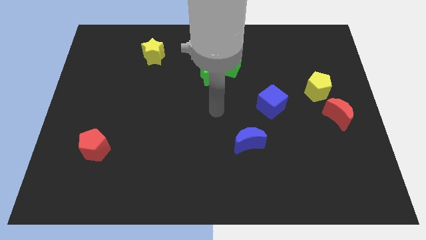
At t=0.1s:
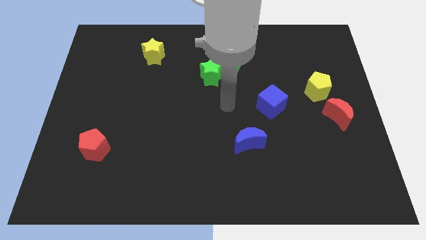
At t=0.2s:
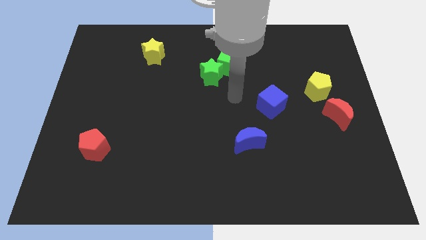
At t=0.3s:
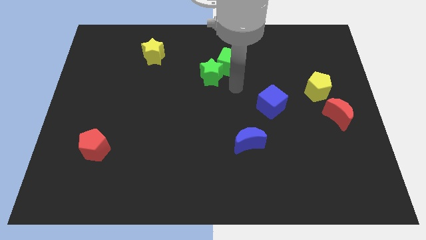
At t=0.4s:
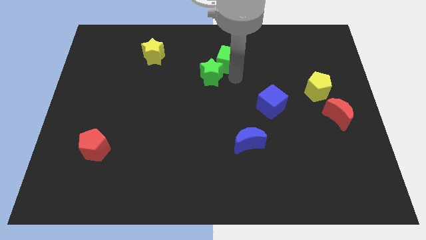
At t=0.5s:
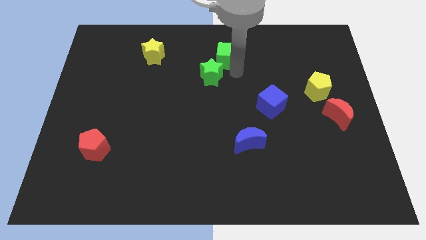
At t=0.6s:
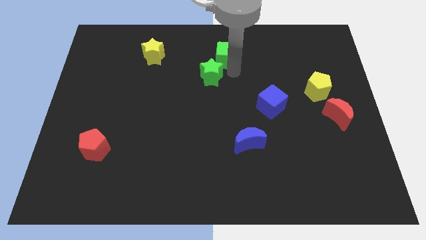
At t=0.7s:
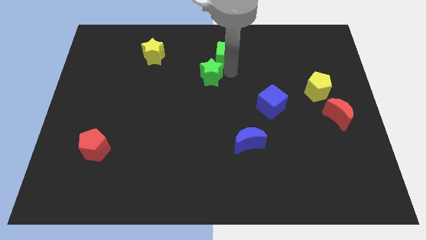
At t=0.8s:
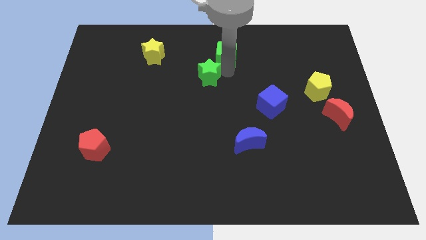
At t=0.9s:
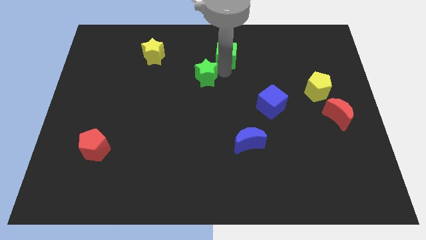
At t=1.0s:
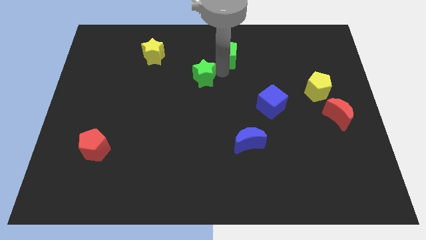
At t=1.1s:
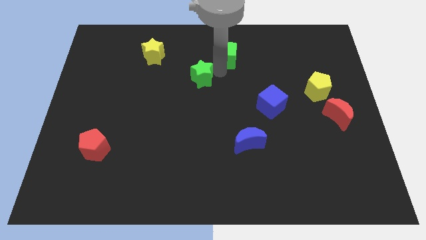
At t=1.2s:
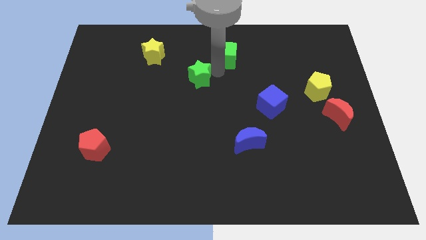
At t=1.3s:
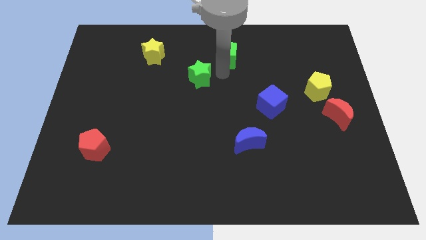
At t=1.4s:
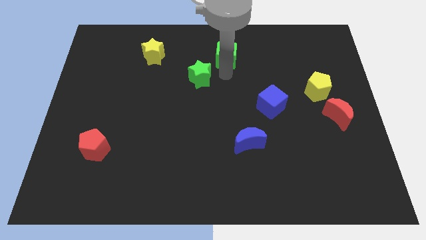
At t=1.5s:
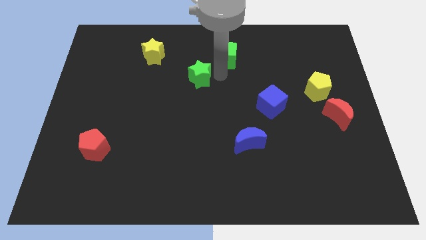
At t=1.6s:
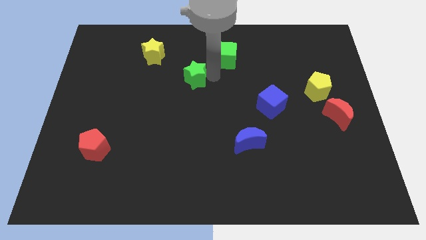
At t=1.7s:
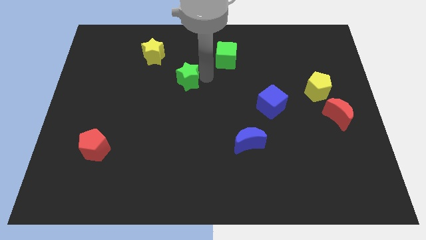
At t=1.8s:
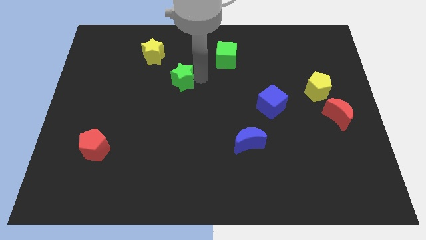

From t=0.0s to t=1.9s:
slide the green star left somewhat

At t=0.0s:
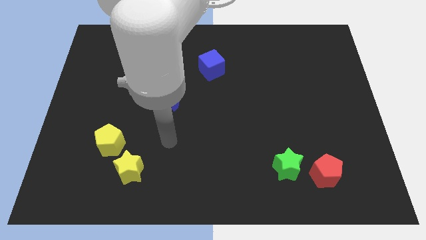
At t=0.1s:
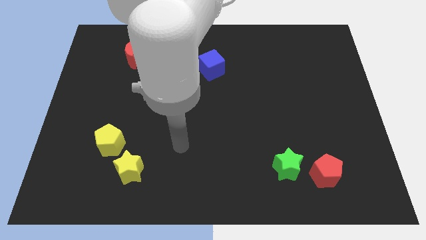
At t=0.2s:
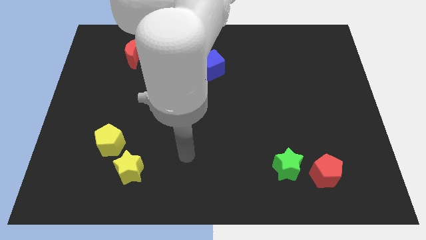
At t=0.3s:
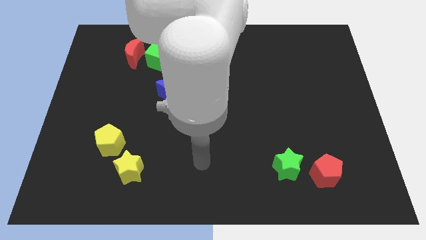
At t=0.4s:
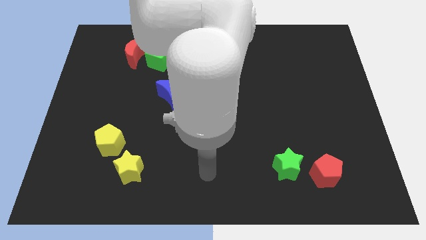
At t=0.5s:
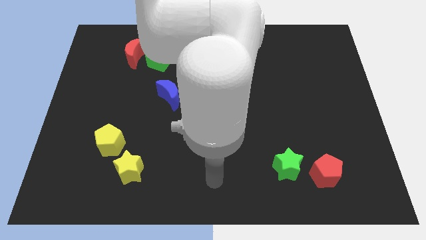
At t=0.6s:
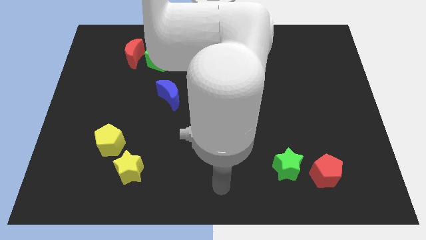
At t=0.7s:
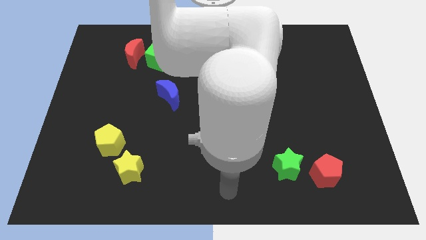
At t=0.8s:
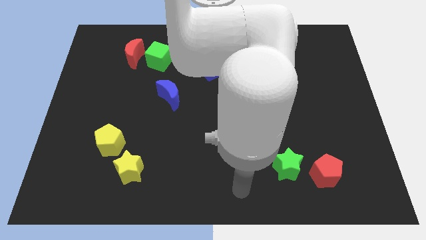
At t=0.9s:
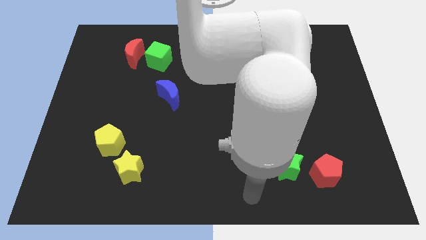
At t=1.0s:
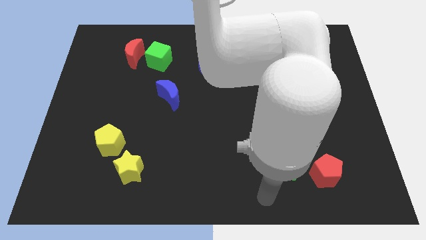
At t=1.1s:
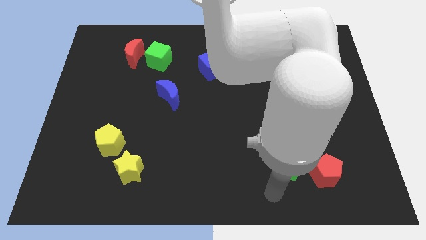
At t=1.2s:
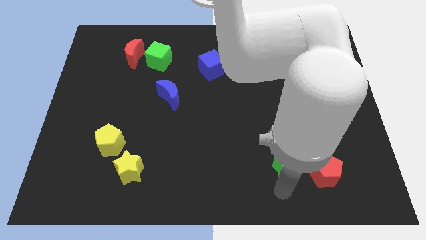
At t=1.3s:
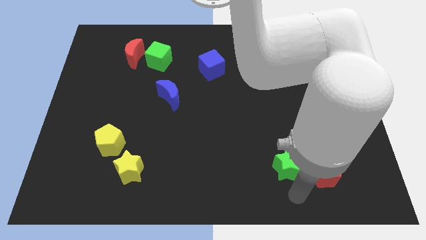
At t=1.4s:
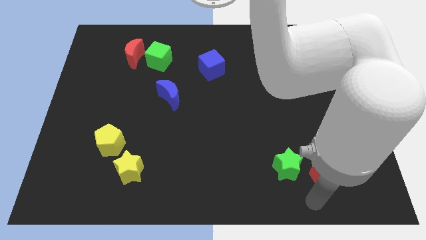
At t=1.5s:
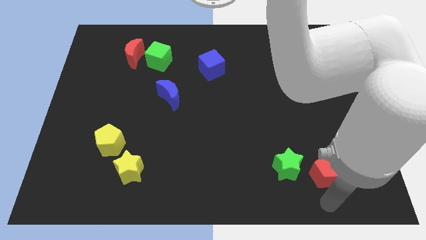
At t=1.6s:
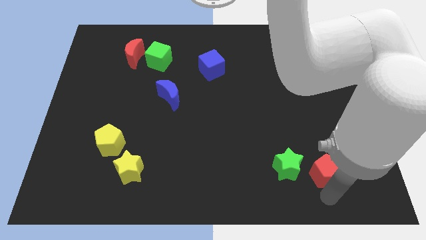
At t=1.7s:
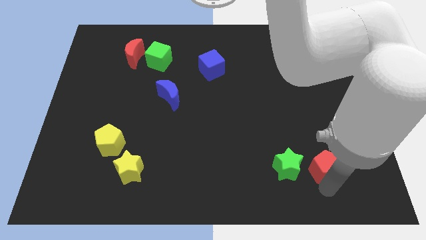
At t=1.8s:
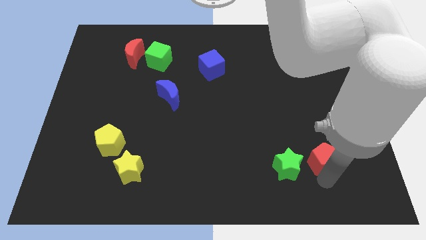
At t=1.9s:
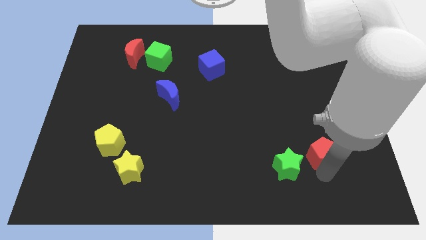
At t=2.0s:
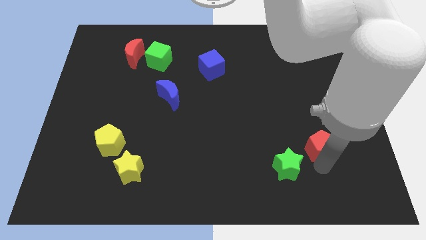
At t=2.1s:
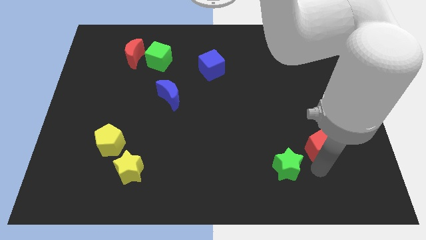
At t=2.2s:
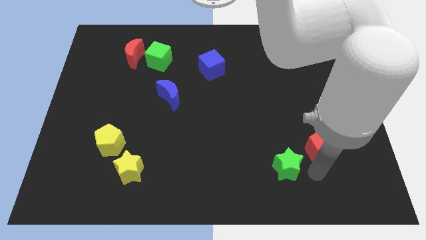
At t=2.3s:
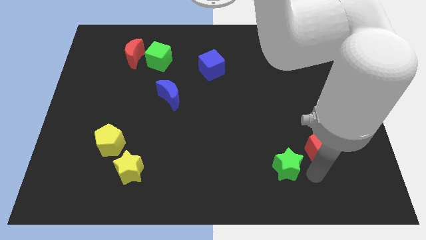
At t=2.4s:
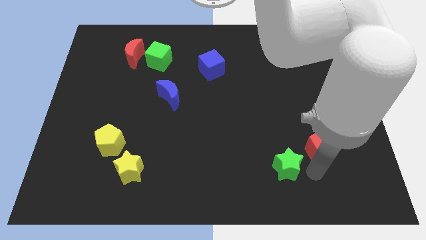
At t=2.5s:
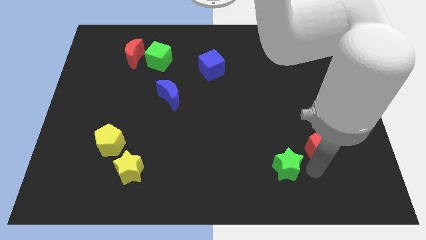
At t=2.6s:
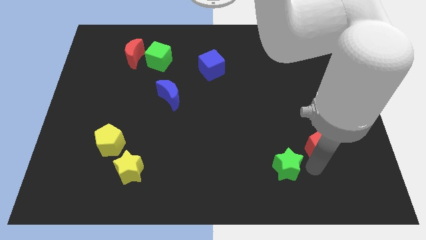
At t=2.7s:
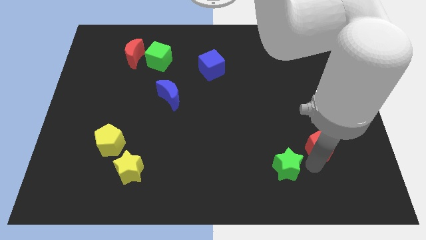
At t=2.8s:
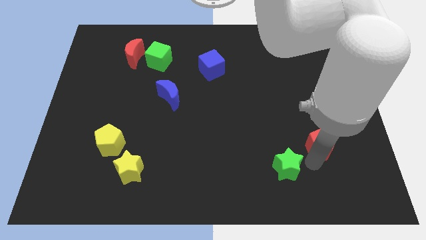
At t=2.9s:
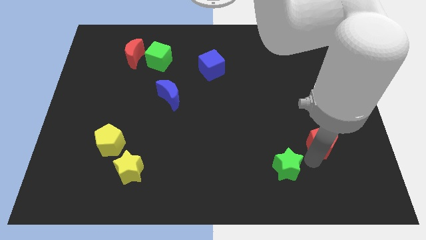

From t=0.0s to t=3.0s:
slightly move the red pentagon up

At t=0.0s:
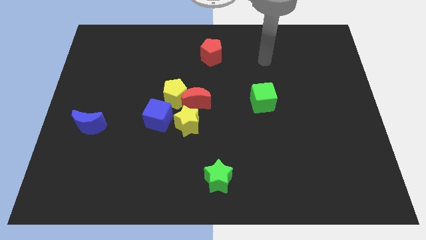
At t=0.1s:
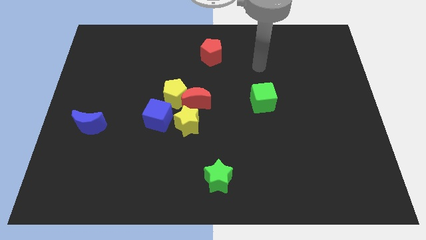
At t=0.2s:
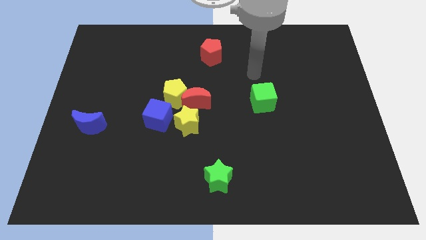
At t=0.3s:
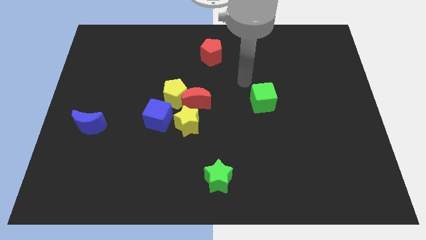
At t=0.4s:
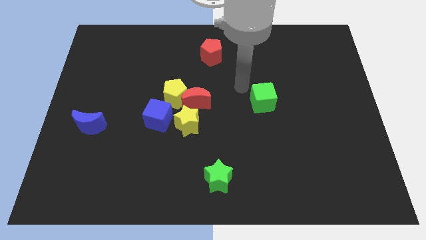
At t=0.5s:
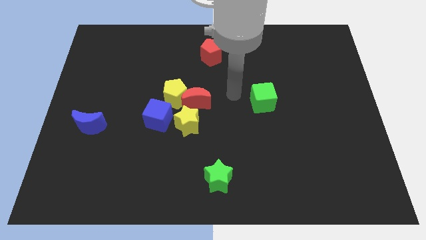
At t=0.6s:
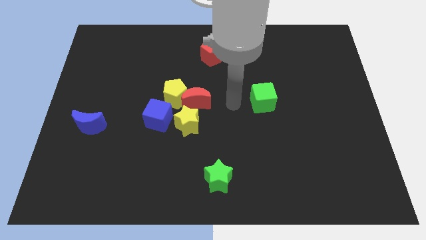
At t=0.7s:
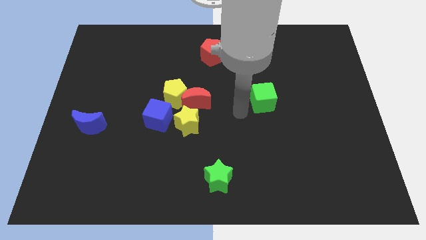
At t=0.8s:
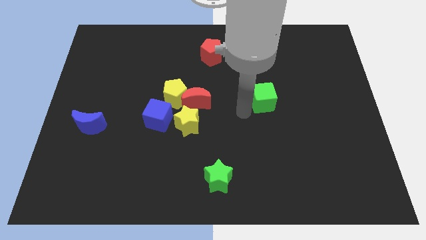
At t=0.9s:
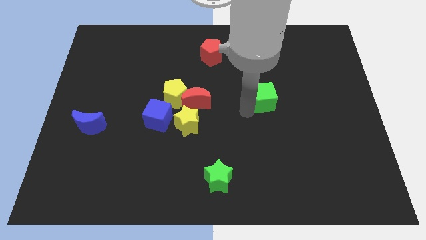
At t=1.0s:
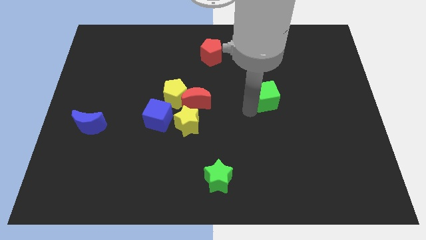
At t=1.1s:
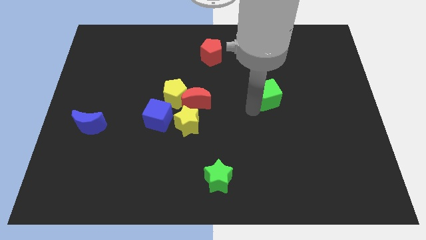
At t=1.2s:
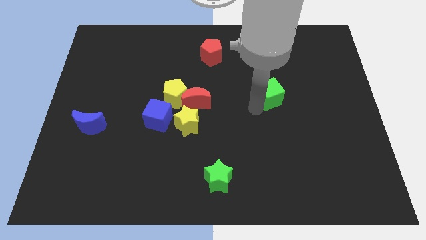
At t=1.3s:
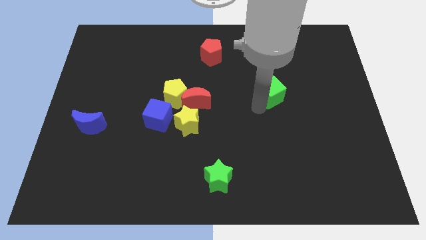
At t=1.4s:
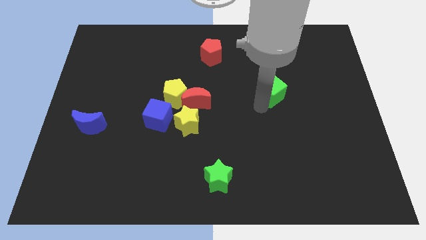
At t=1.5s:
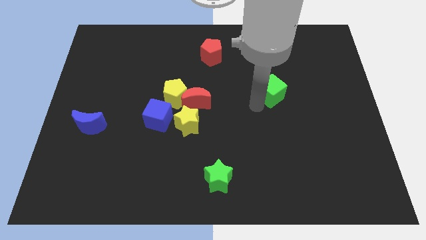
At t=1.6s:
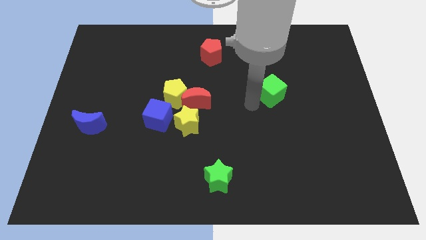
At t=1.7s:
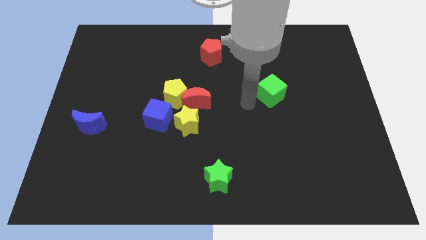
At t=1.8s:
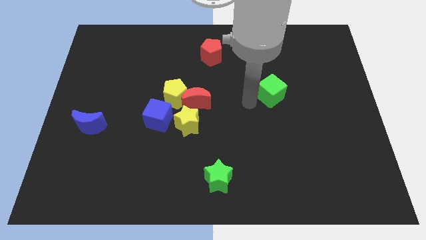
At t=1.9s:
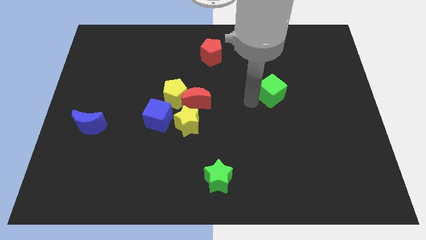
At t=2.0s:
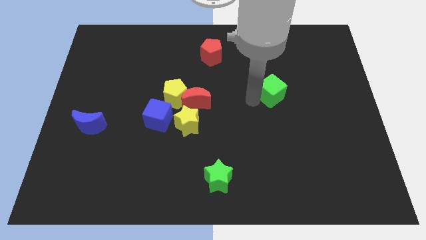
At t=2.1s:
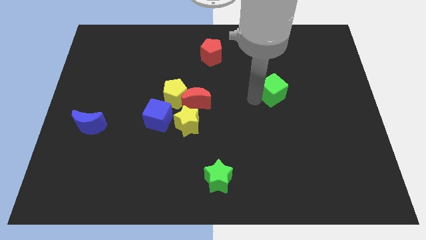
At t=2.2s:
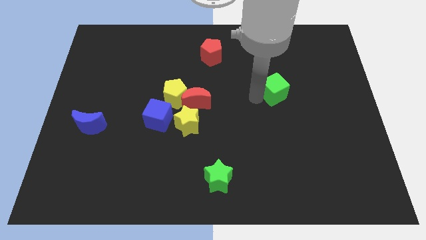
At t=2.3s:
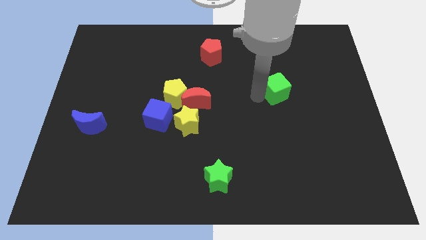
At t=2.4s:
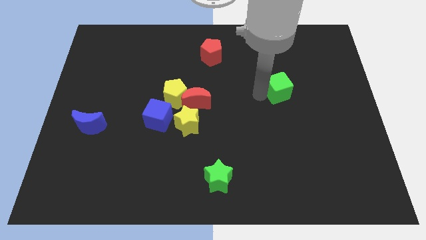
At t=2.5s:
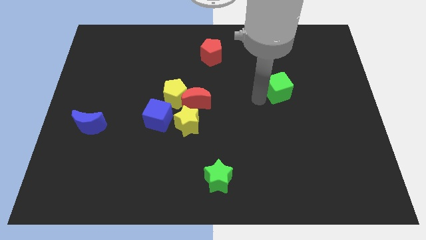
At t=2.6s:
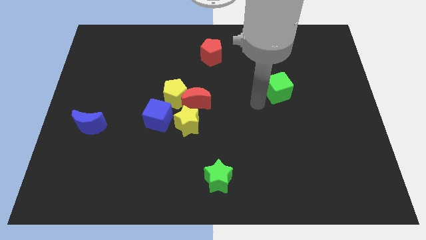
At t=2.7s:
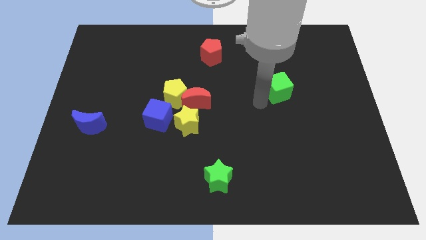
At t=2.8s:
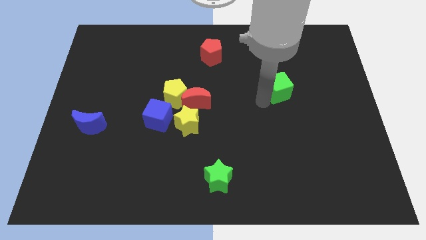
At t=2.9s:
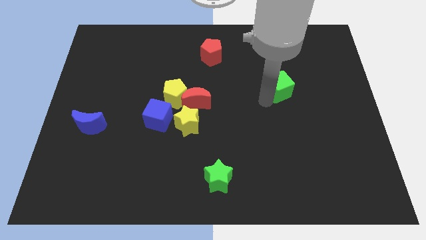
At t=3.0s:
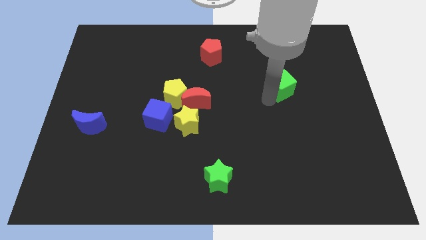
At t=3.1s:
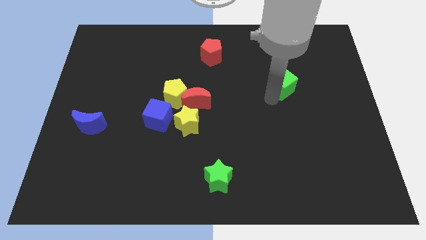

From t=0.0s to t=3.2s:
move the green cube up and then right a little bit

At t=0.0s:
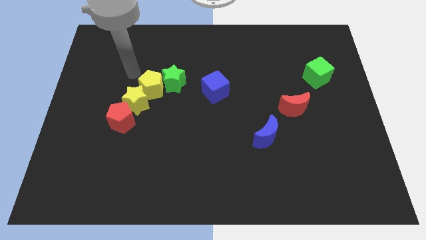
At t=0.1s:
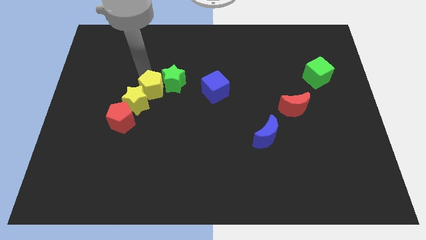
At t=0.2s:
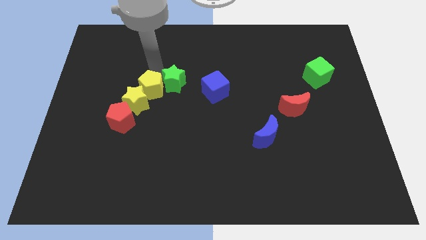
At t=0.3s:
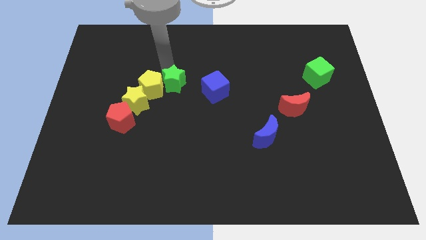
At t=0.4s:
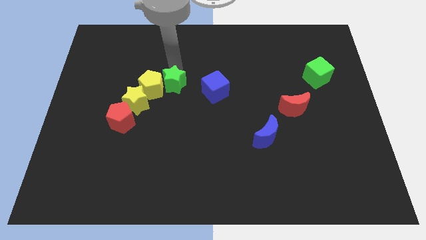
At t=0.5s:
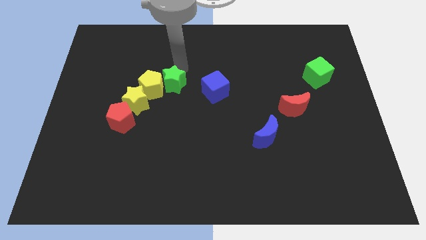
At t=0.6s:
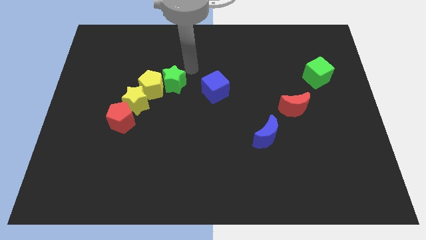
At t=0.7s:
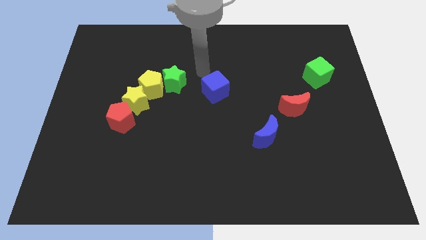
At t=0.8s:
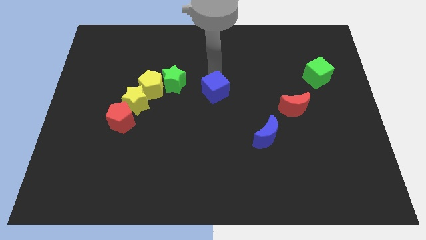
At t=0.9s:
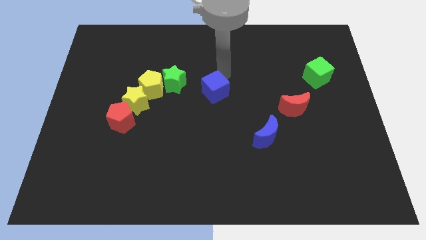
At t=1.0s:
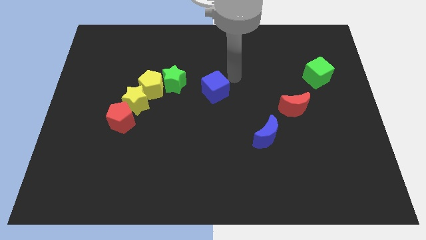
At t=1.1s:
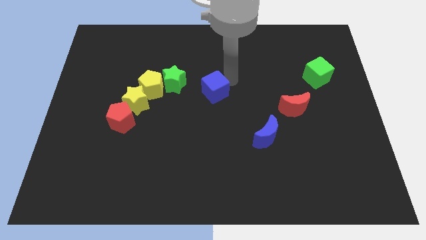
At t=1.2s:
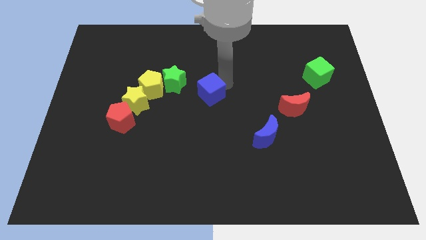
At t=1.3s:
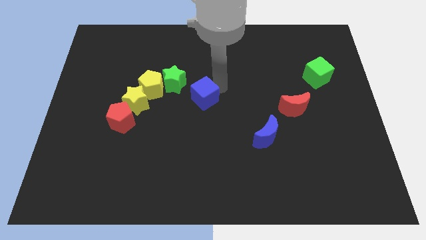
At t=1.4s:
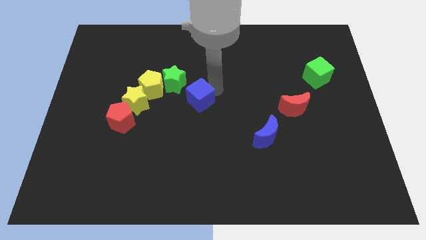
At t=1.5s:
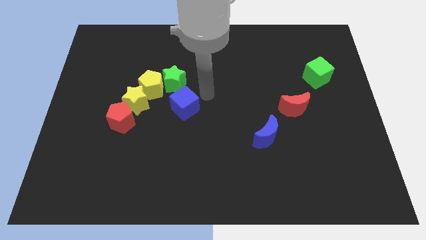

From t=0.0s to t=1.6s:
move the blue cube down and left a little
